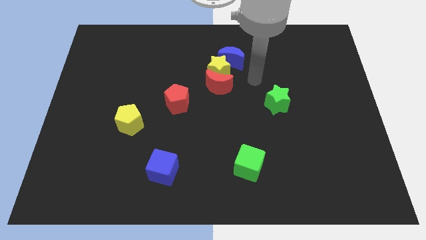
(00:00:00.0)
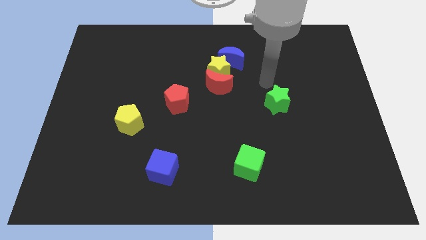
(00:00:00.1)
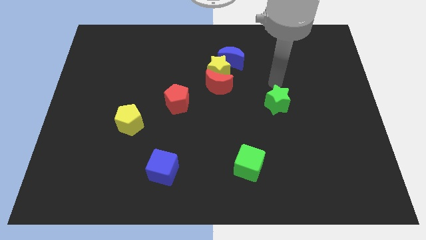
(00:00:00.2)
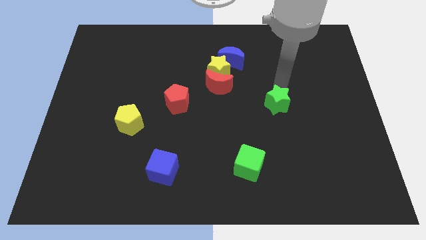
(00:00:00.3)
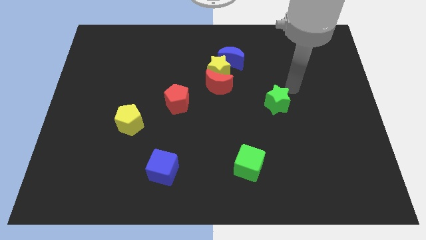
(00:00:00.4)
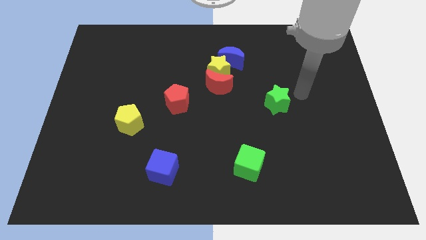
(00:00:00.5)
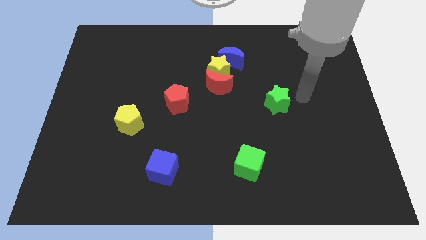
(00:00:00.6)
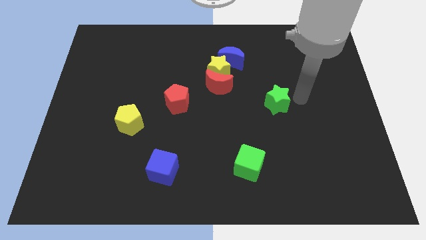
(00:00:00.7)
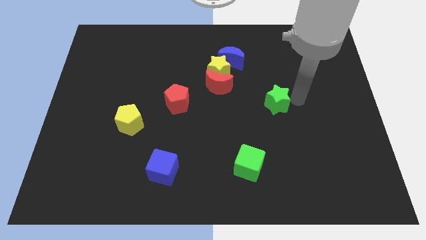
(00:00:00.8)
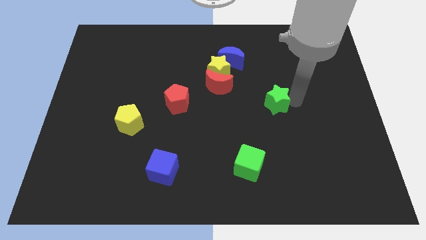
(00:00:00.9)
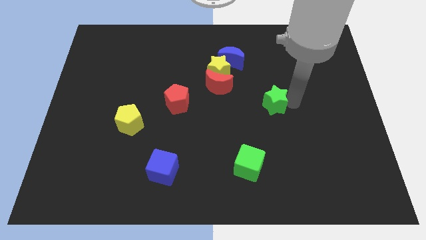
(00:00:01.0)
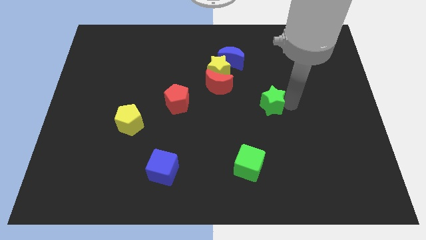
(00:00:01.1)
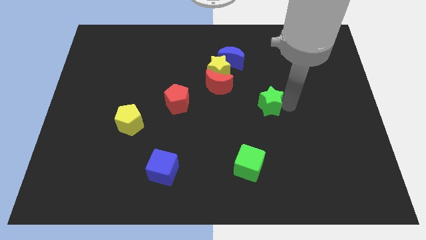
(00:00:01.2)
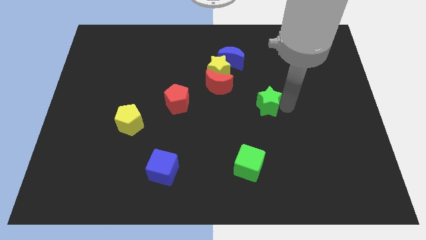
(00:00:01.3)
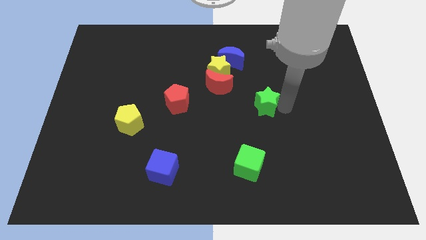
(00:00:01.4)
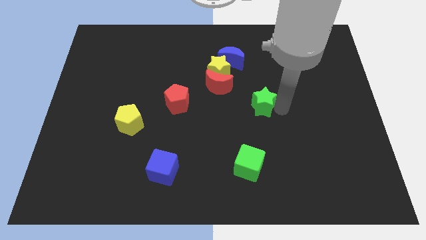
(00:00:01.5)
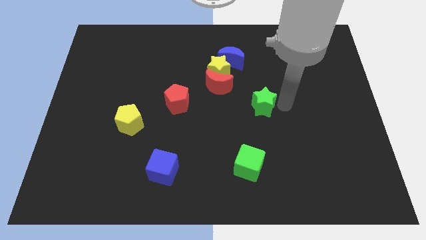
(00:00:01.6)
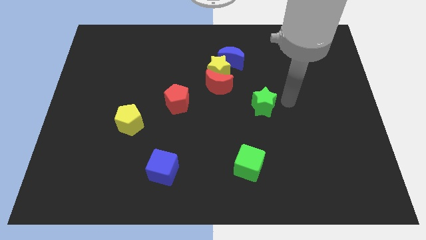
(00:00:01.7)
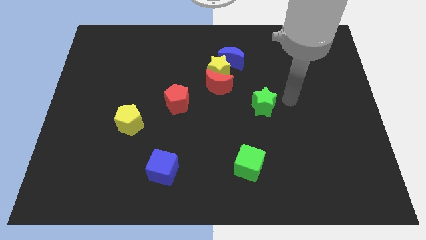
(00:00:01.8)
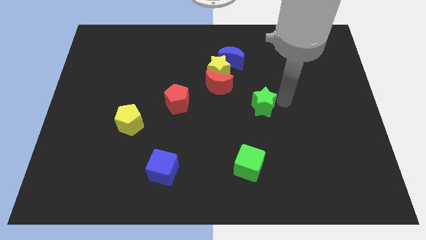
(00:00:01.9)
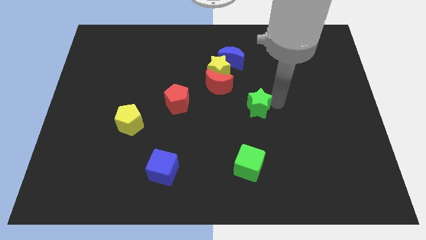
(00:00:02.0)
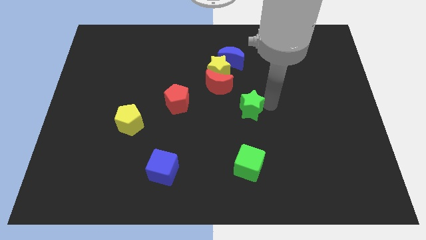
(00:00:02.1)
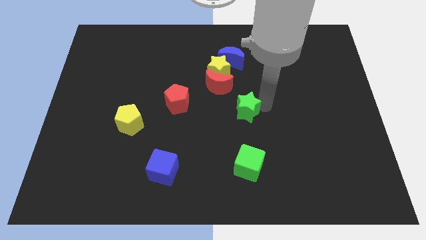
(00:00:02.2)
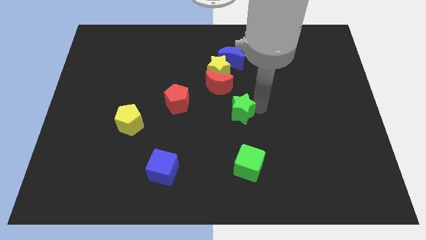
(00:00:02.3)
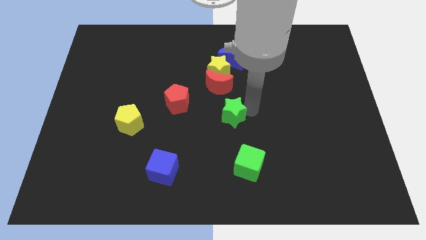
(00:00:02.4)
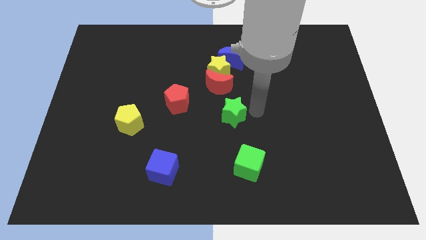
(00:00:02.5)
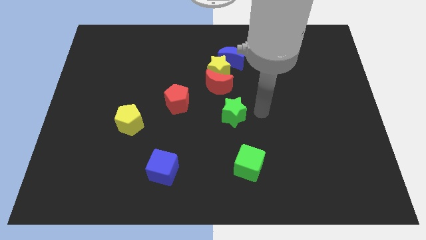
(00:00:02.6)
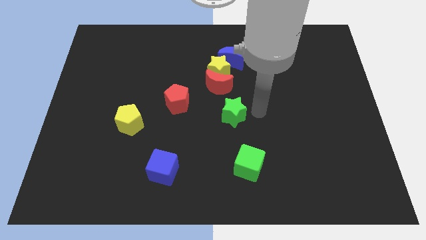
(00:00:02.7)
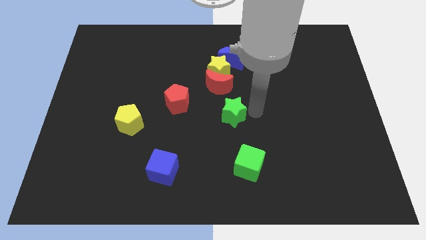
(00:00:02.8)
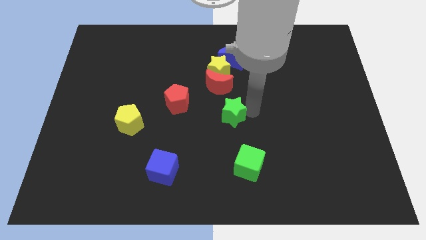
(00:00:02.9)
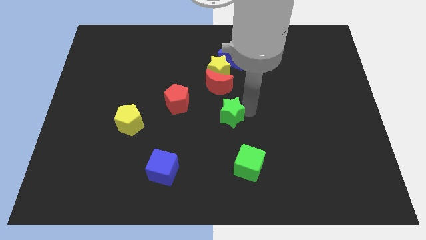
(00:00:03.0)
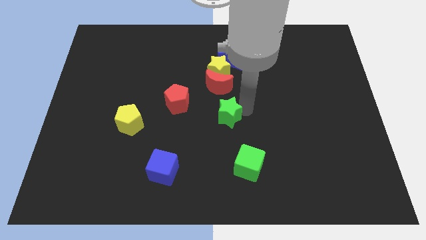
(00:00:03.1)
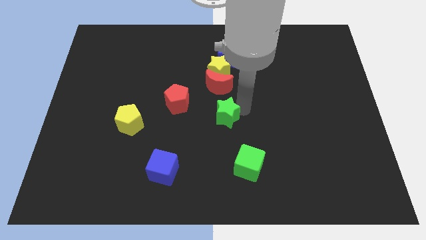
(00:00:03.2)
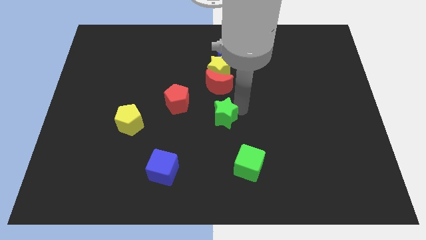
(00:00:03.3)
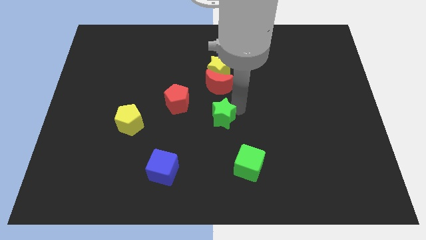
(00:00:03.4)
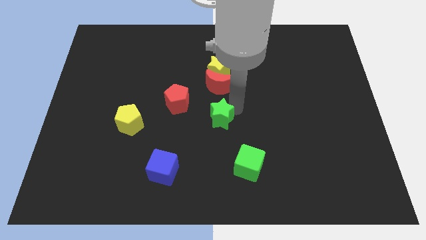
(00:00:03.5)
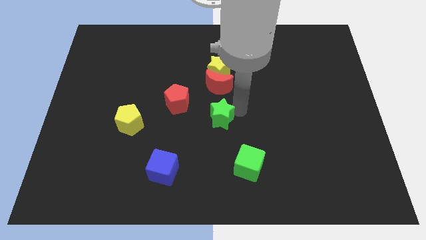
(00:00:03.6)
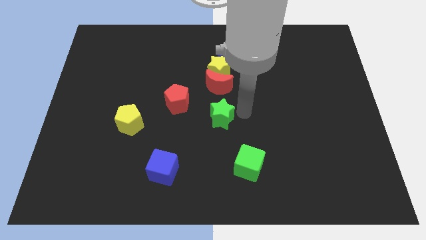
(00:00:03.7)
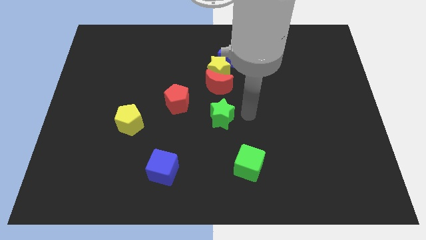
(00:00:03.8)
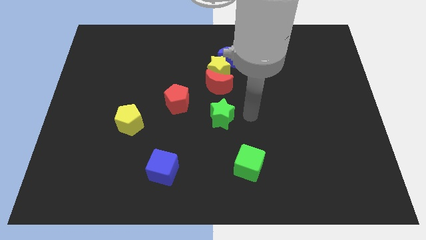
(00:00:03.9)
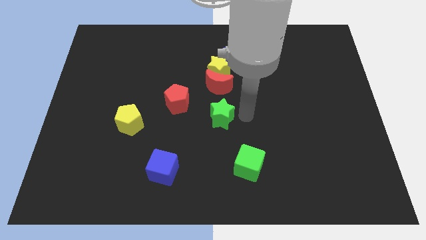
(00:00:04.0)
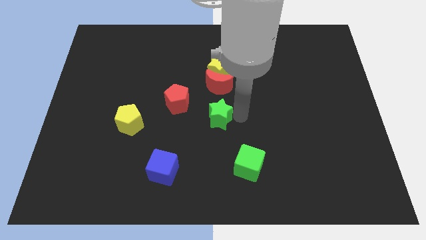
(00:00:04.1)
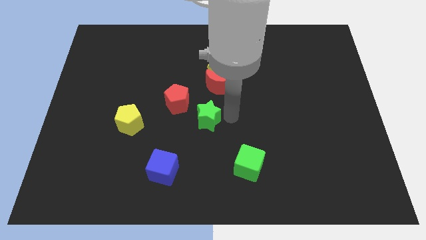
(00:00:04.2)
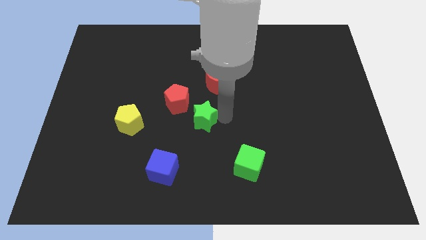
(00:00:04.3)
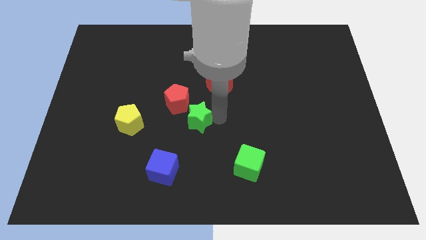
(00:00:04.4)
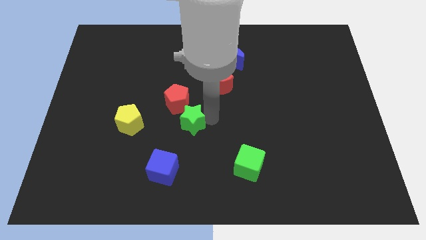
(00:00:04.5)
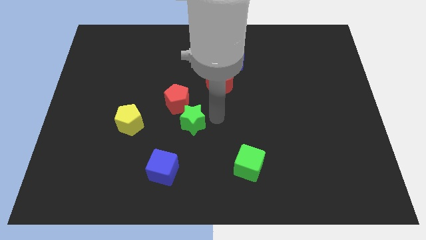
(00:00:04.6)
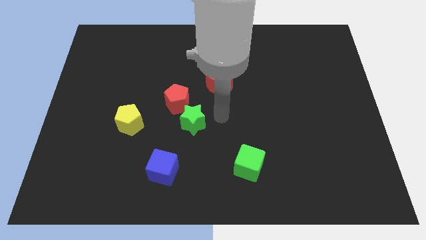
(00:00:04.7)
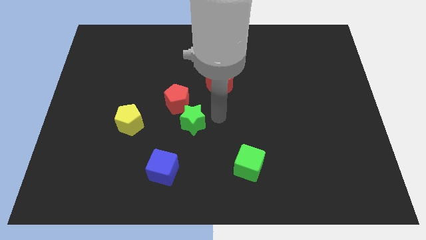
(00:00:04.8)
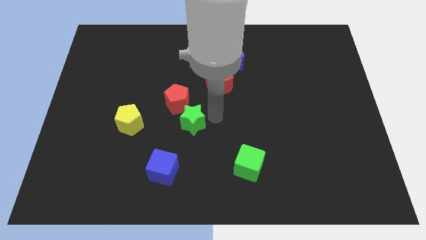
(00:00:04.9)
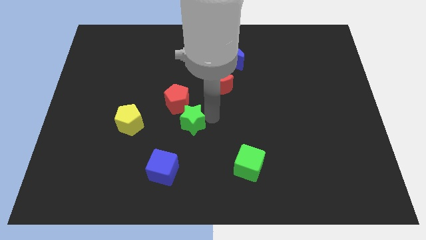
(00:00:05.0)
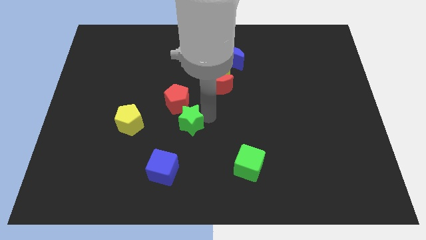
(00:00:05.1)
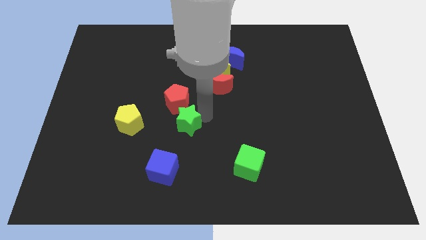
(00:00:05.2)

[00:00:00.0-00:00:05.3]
slide the green star above the blue cube

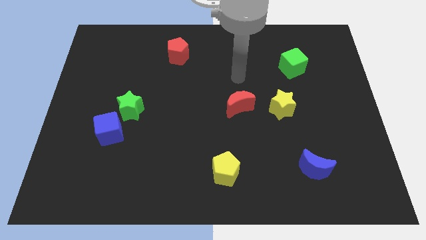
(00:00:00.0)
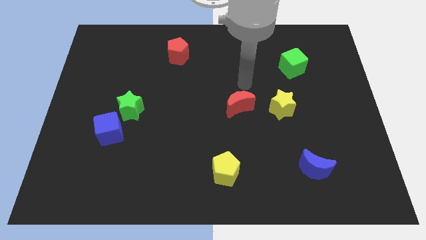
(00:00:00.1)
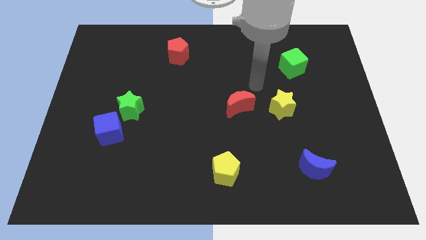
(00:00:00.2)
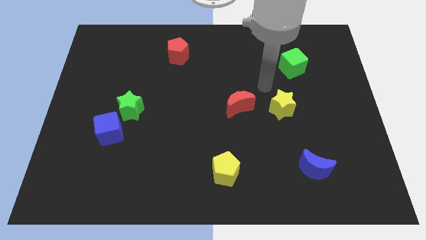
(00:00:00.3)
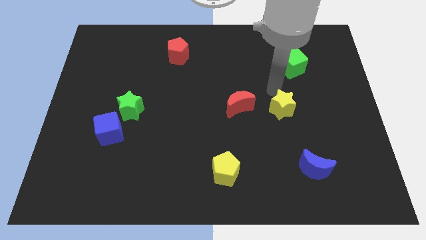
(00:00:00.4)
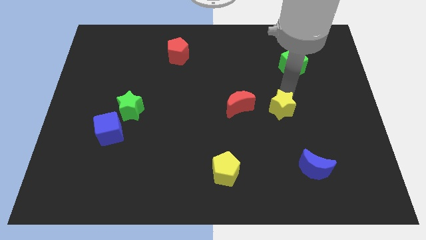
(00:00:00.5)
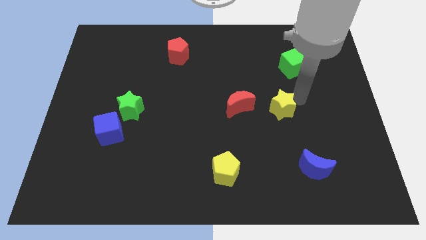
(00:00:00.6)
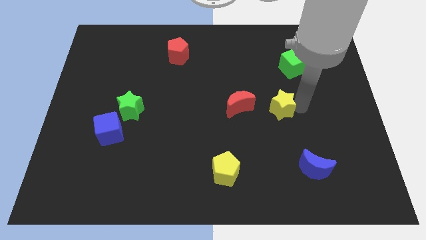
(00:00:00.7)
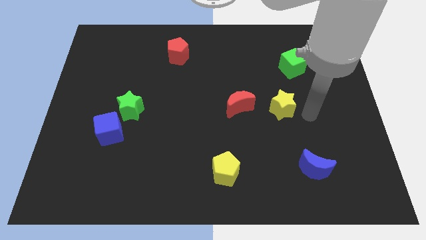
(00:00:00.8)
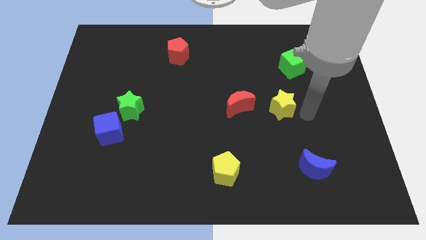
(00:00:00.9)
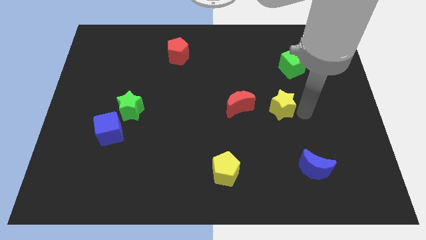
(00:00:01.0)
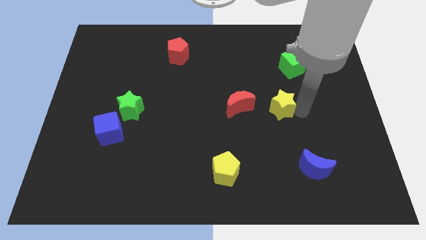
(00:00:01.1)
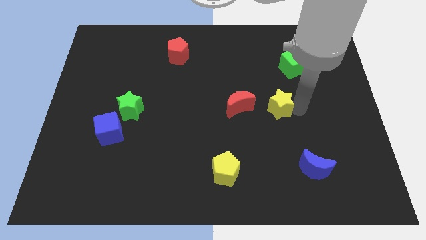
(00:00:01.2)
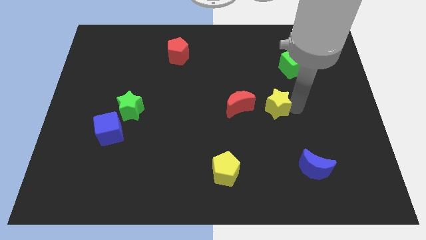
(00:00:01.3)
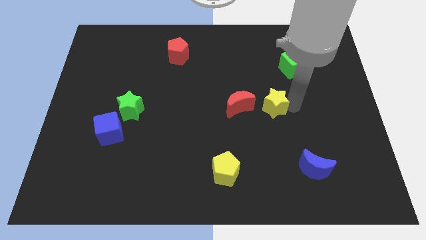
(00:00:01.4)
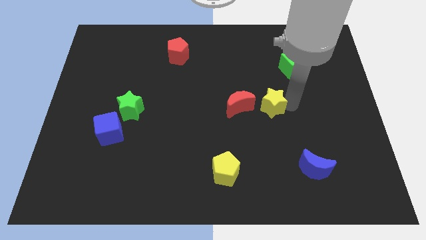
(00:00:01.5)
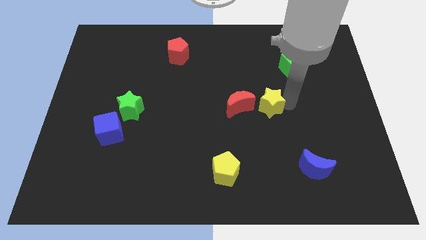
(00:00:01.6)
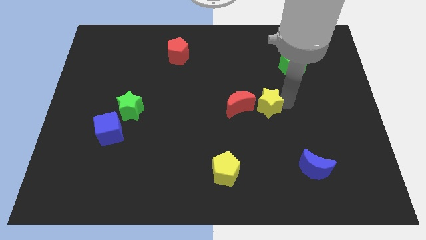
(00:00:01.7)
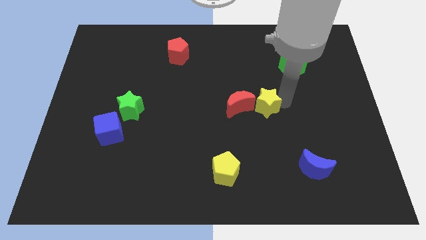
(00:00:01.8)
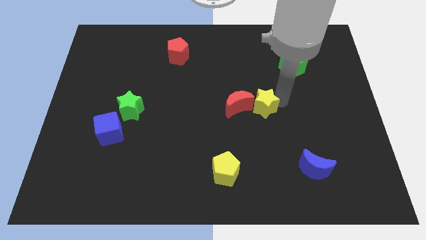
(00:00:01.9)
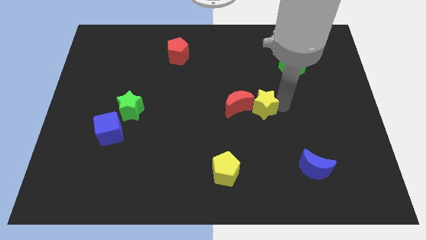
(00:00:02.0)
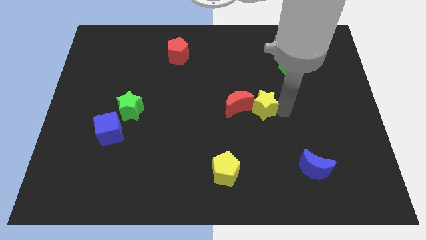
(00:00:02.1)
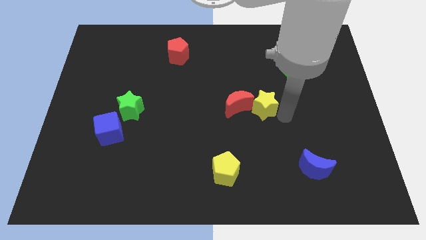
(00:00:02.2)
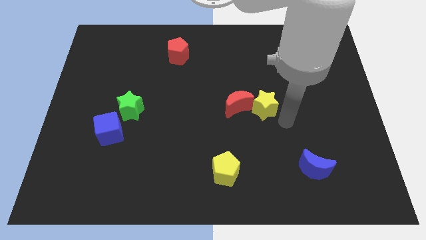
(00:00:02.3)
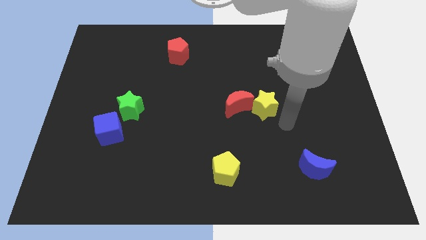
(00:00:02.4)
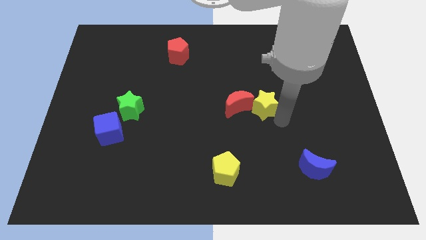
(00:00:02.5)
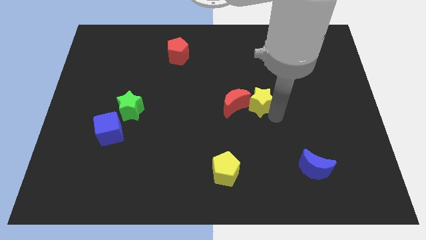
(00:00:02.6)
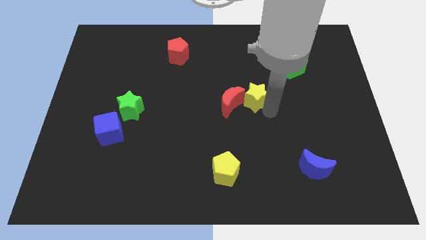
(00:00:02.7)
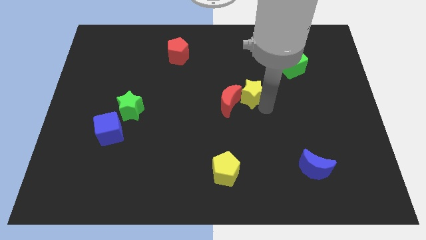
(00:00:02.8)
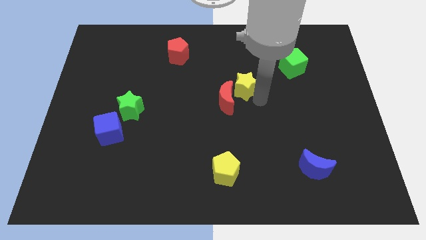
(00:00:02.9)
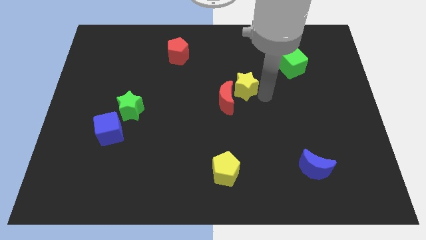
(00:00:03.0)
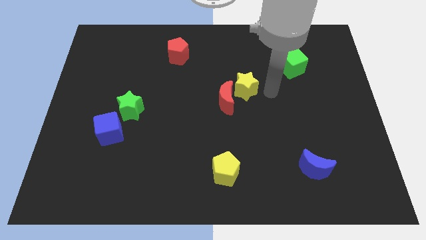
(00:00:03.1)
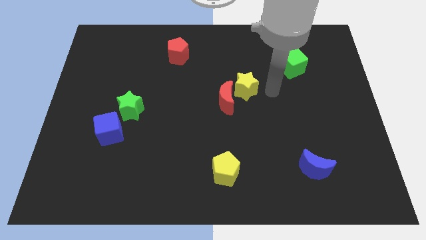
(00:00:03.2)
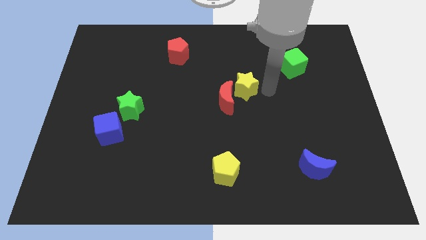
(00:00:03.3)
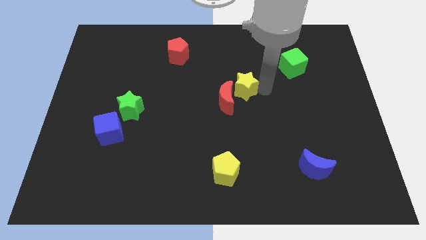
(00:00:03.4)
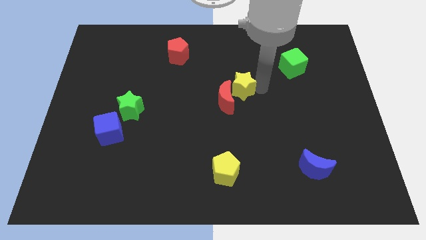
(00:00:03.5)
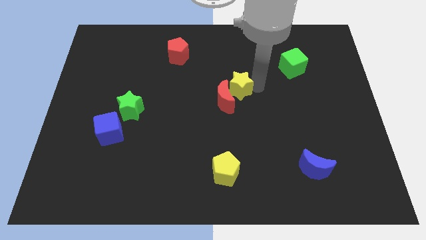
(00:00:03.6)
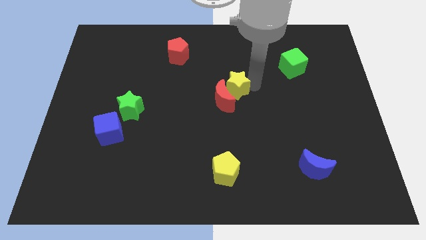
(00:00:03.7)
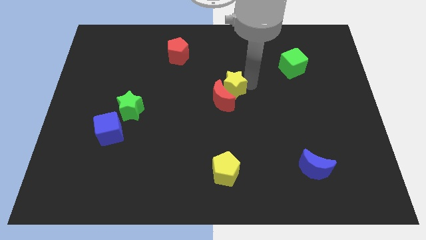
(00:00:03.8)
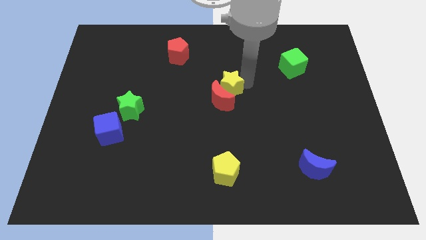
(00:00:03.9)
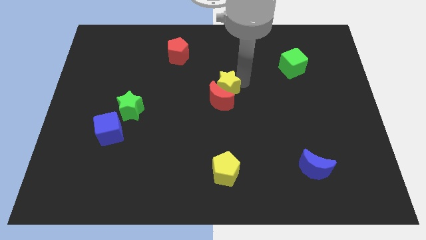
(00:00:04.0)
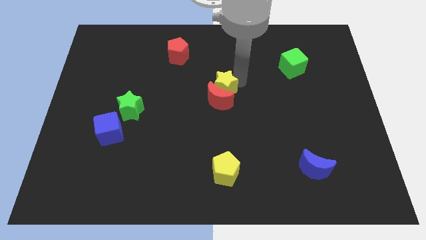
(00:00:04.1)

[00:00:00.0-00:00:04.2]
slide the yellow star diagonally up and to the left of the red moon
